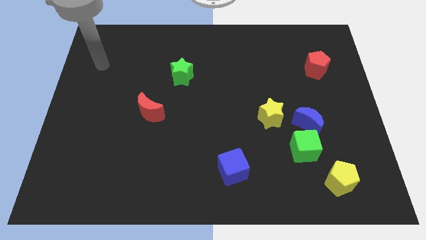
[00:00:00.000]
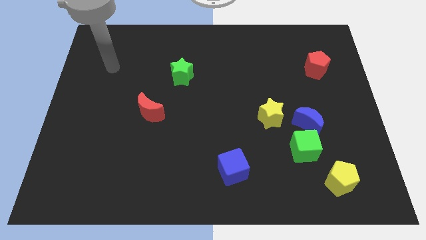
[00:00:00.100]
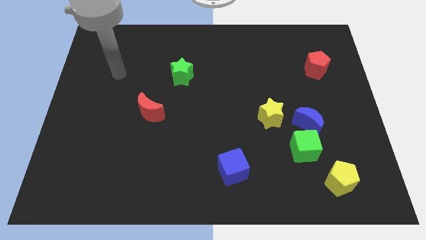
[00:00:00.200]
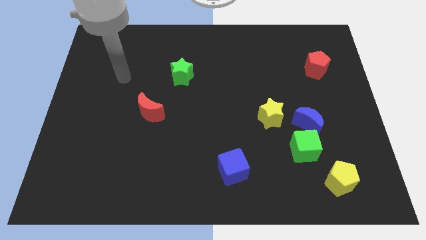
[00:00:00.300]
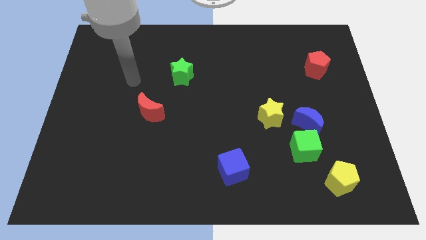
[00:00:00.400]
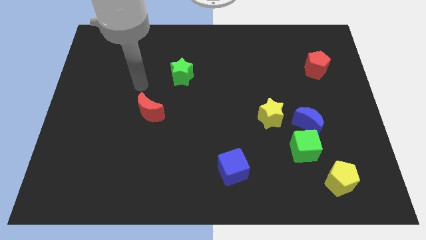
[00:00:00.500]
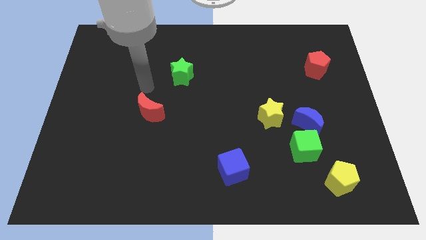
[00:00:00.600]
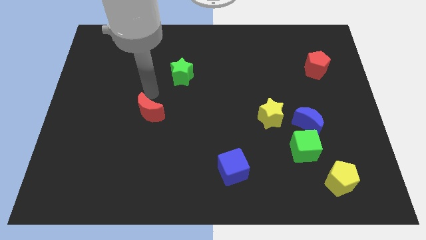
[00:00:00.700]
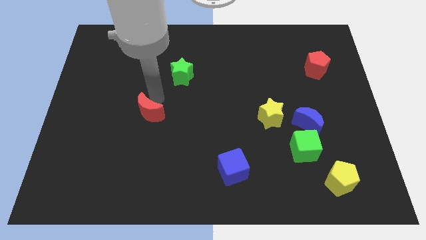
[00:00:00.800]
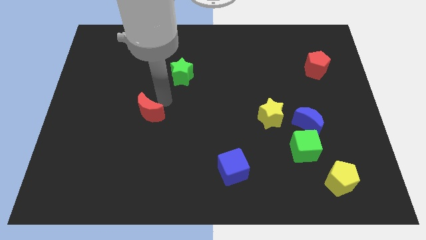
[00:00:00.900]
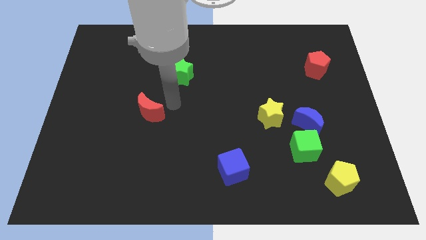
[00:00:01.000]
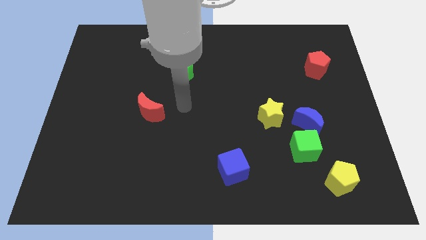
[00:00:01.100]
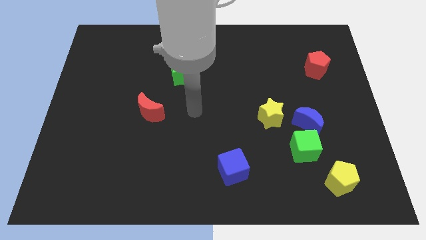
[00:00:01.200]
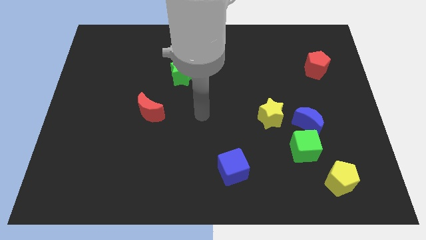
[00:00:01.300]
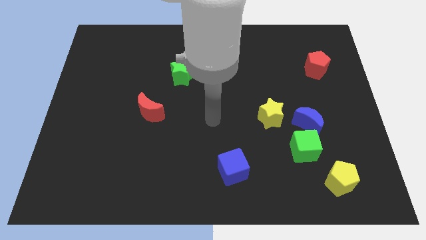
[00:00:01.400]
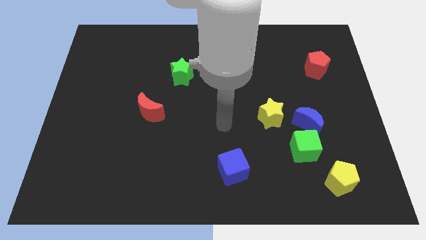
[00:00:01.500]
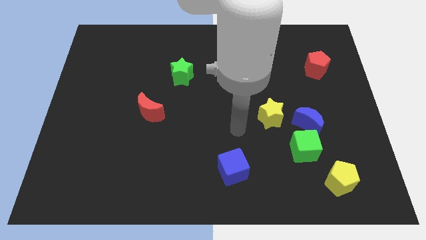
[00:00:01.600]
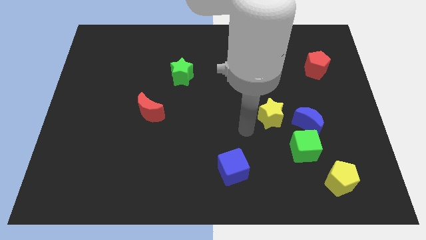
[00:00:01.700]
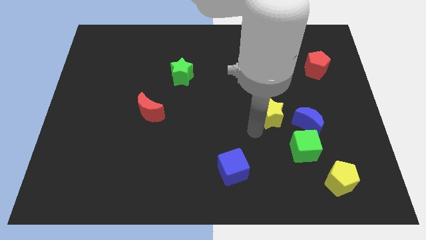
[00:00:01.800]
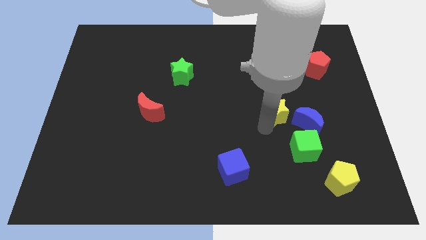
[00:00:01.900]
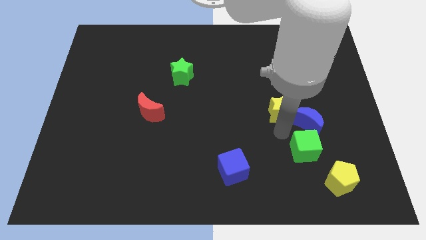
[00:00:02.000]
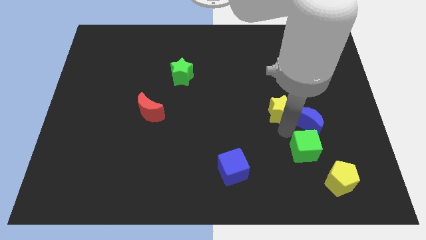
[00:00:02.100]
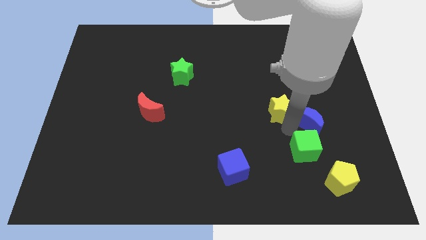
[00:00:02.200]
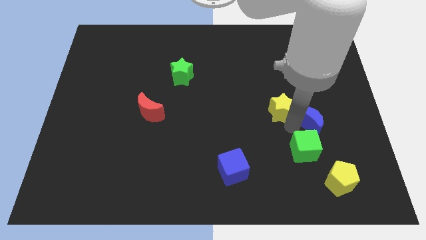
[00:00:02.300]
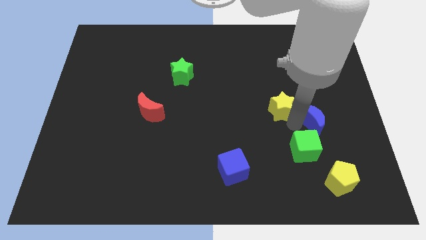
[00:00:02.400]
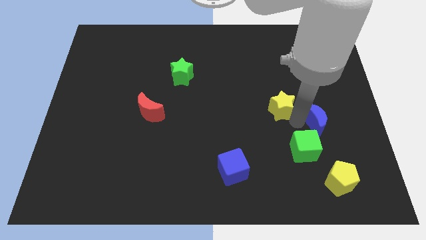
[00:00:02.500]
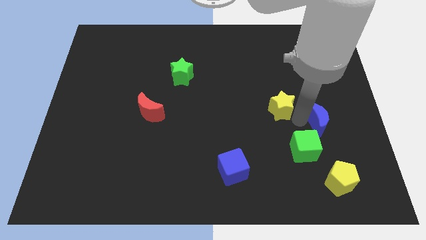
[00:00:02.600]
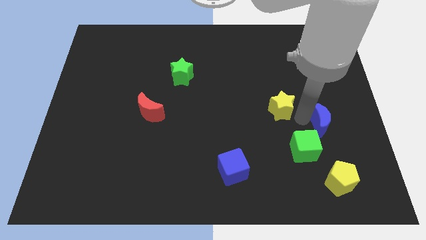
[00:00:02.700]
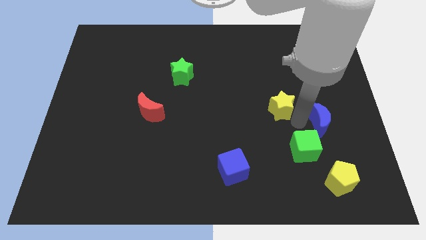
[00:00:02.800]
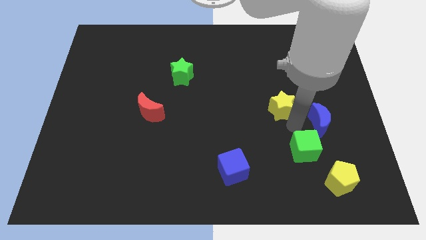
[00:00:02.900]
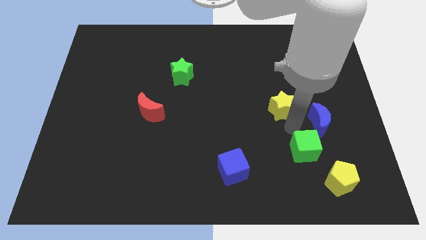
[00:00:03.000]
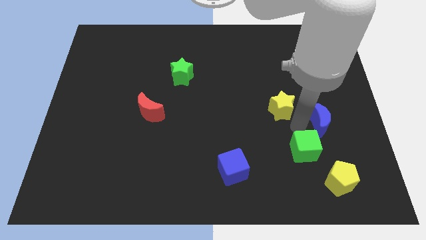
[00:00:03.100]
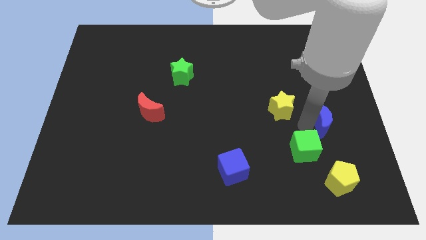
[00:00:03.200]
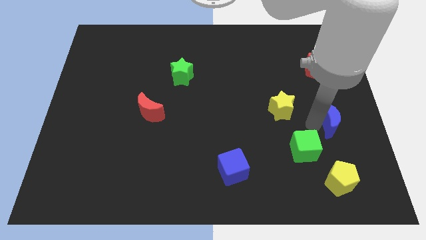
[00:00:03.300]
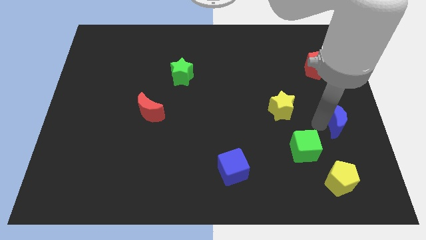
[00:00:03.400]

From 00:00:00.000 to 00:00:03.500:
separate the blue moon from the green cube and yellow star

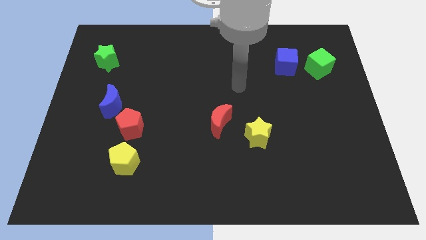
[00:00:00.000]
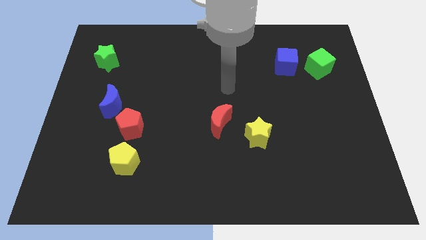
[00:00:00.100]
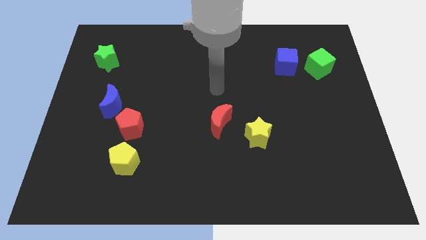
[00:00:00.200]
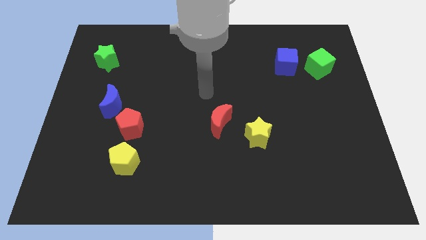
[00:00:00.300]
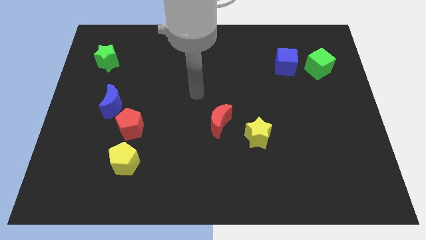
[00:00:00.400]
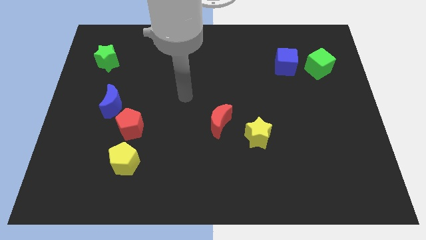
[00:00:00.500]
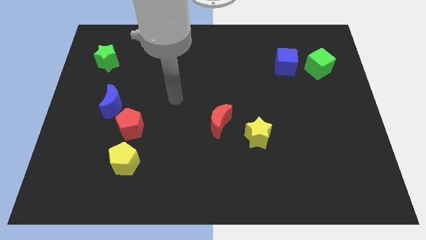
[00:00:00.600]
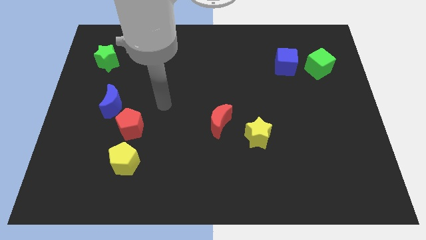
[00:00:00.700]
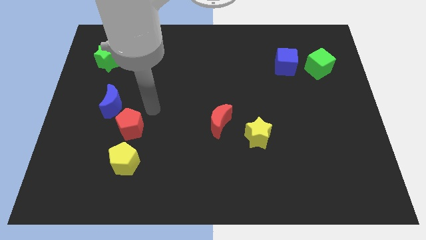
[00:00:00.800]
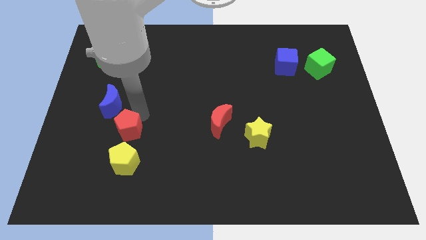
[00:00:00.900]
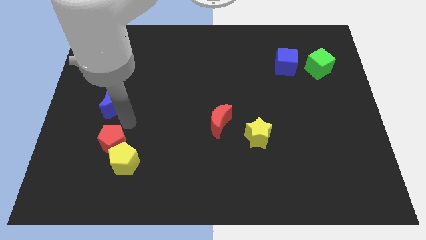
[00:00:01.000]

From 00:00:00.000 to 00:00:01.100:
pull the blue moon apart from the red pentagon

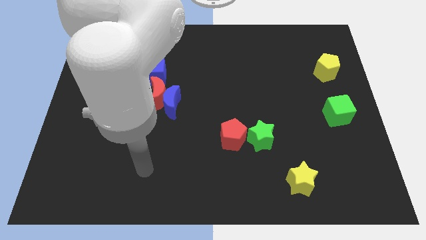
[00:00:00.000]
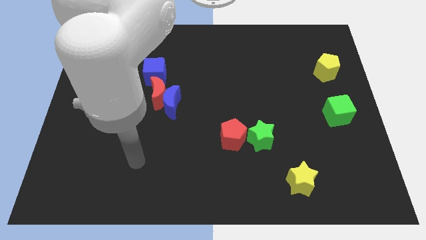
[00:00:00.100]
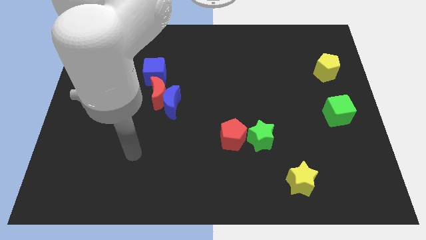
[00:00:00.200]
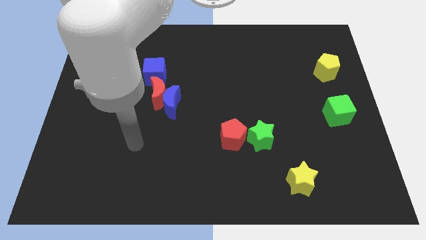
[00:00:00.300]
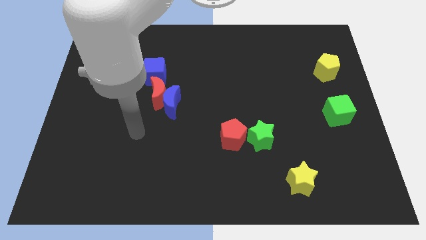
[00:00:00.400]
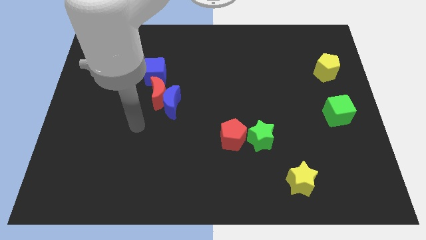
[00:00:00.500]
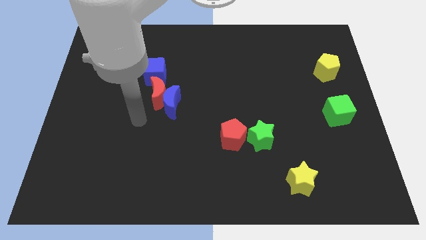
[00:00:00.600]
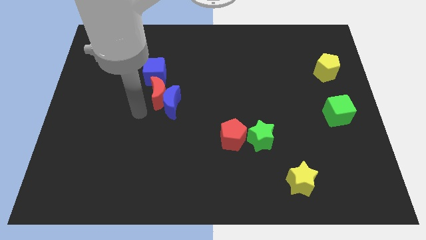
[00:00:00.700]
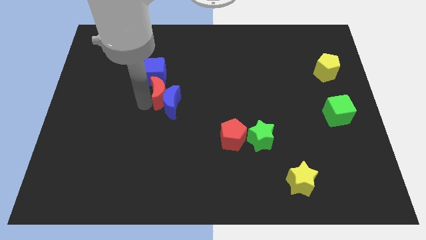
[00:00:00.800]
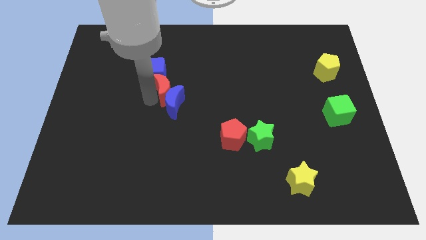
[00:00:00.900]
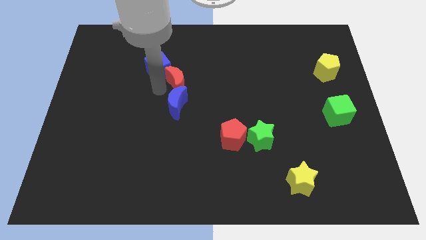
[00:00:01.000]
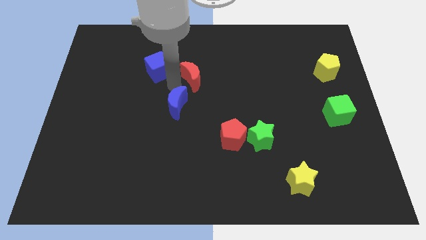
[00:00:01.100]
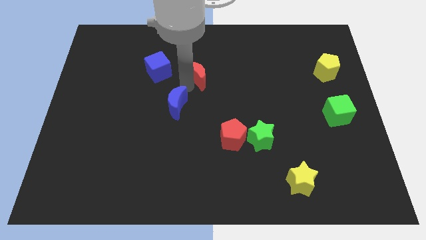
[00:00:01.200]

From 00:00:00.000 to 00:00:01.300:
separate the blue moon from the red moon

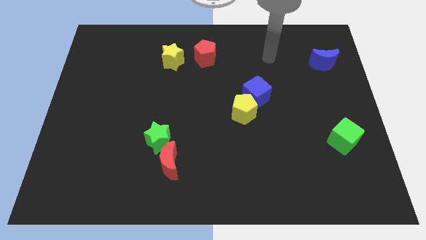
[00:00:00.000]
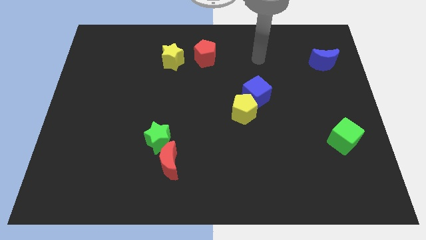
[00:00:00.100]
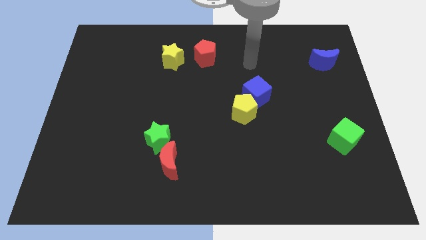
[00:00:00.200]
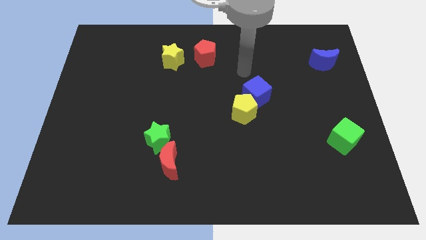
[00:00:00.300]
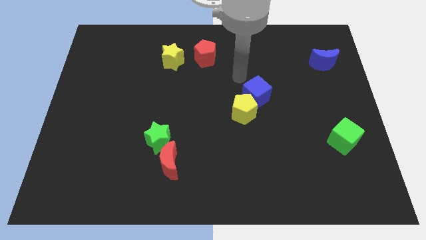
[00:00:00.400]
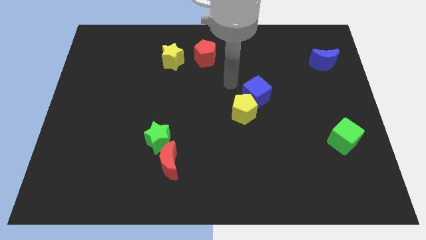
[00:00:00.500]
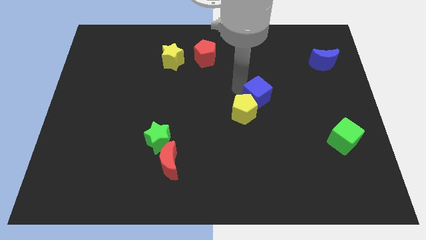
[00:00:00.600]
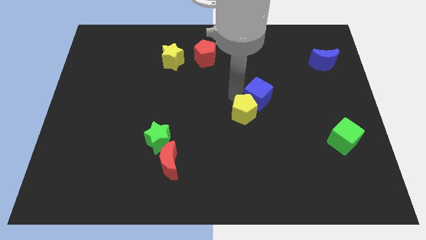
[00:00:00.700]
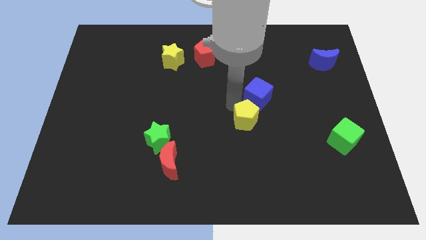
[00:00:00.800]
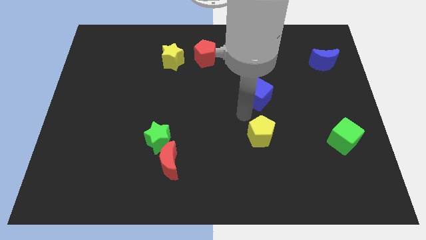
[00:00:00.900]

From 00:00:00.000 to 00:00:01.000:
pull the blue cube apart from the yellow pentagon

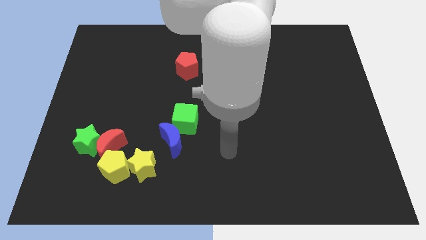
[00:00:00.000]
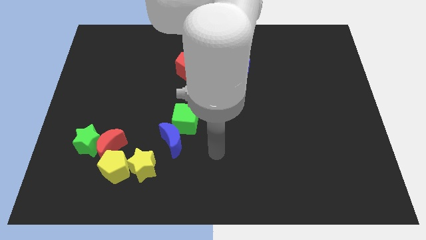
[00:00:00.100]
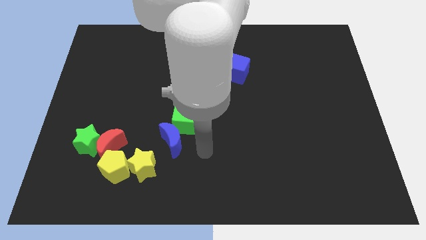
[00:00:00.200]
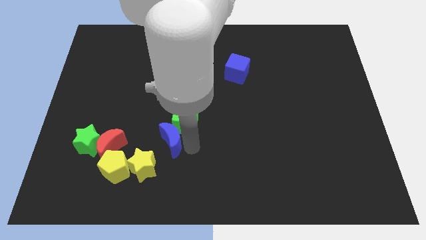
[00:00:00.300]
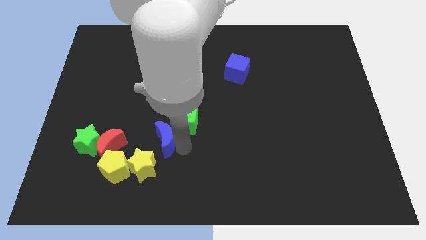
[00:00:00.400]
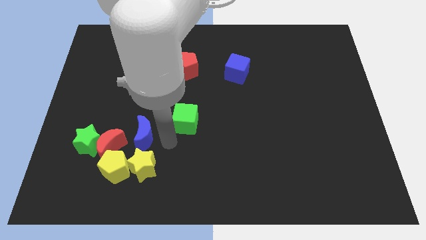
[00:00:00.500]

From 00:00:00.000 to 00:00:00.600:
pull the green cube apart from the blue moon

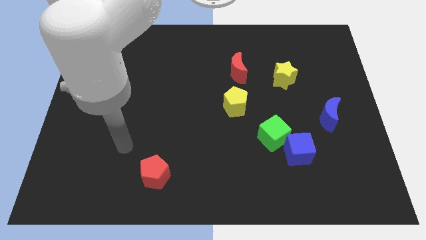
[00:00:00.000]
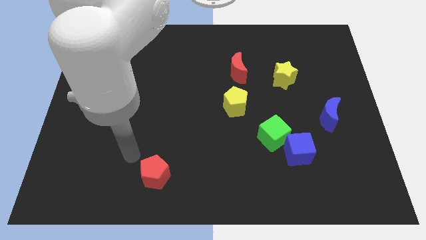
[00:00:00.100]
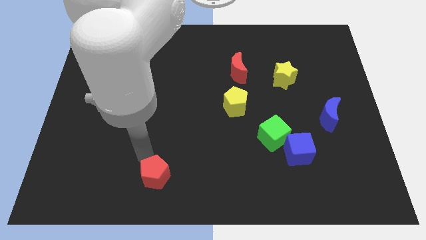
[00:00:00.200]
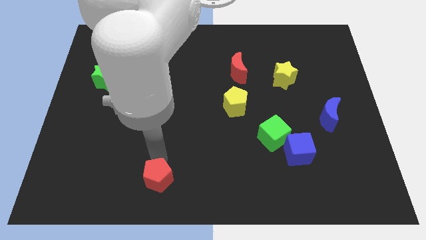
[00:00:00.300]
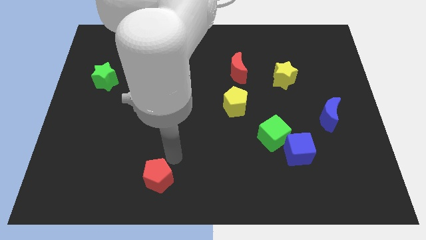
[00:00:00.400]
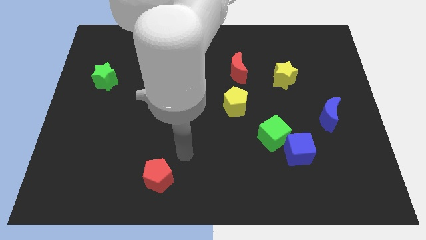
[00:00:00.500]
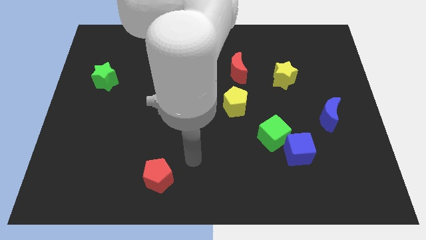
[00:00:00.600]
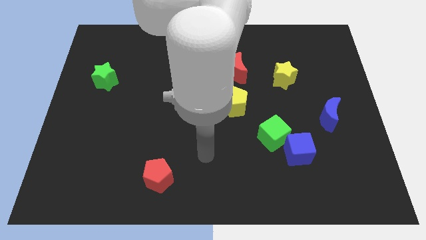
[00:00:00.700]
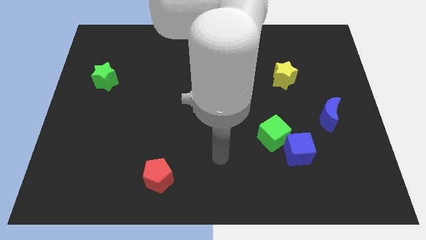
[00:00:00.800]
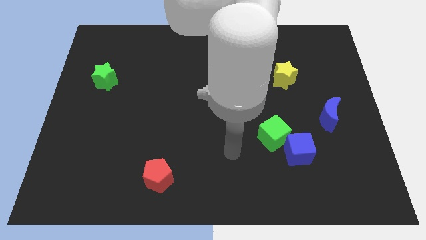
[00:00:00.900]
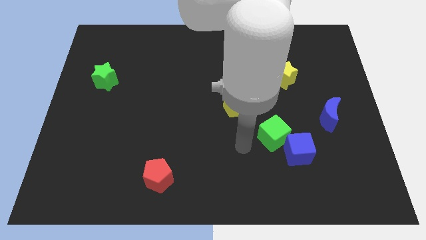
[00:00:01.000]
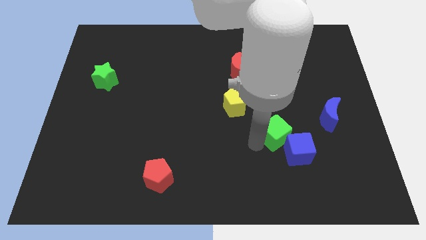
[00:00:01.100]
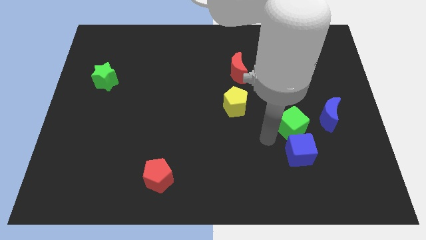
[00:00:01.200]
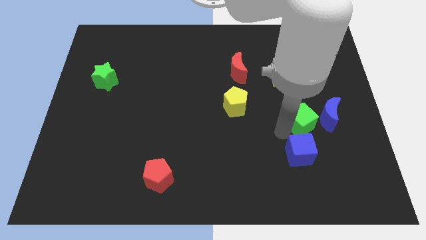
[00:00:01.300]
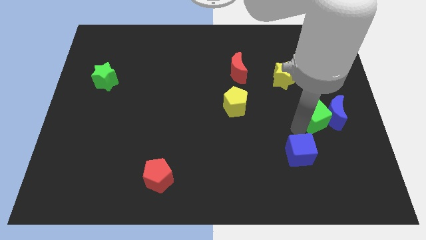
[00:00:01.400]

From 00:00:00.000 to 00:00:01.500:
move the blue cube away from the green cube

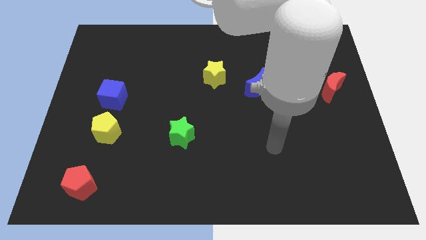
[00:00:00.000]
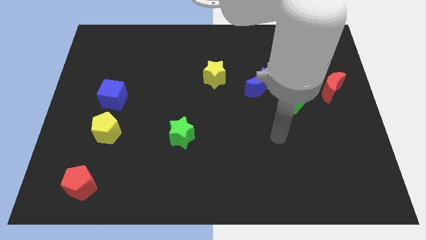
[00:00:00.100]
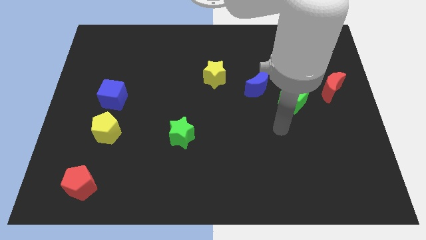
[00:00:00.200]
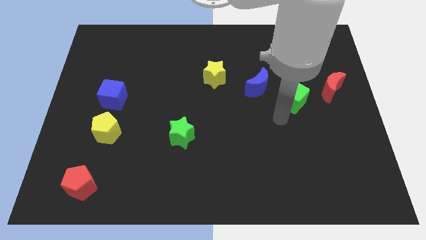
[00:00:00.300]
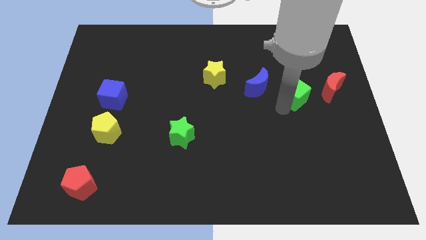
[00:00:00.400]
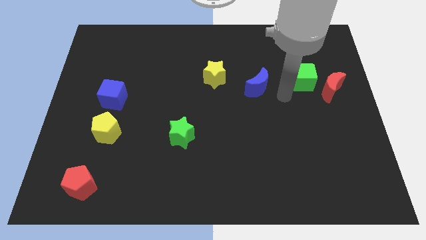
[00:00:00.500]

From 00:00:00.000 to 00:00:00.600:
pull the blue moon apart from the green cube
